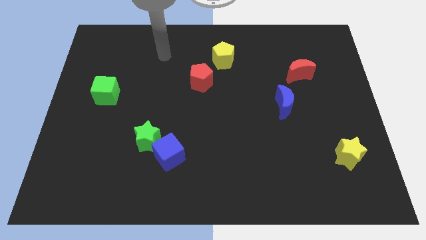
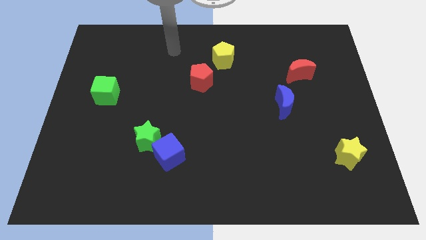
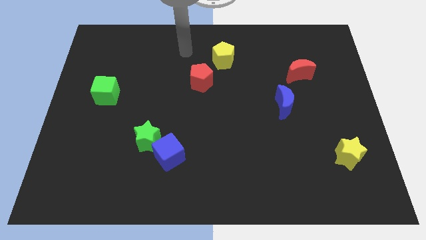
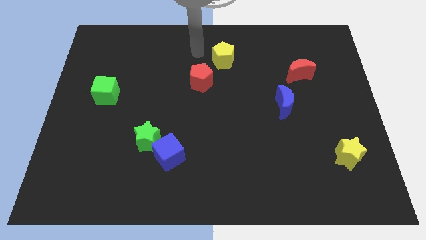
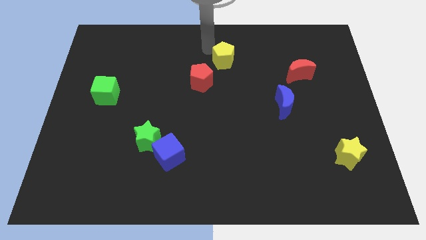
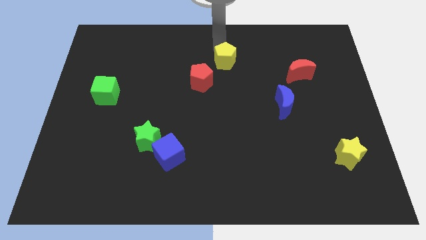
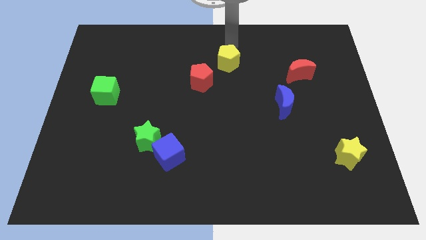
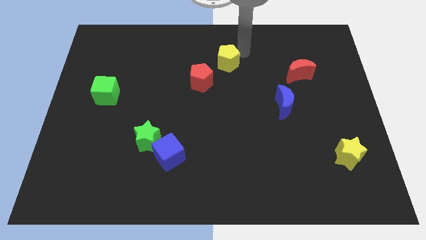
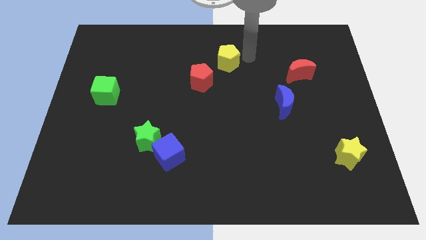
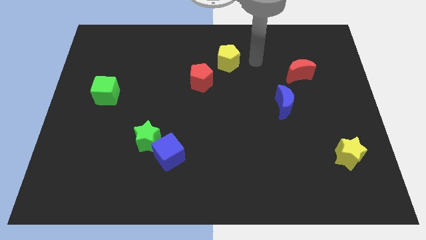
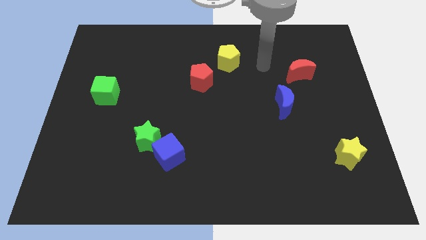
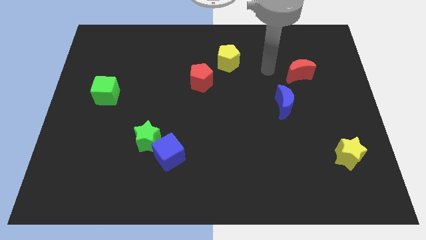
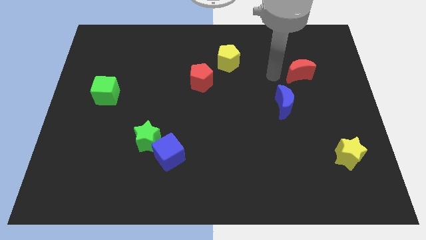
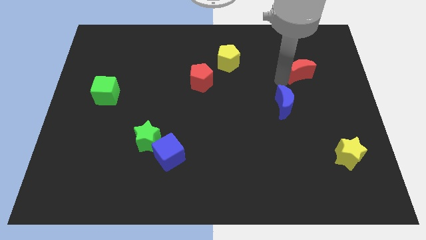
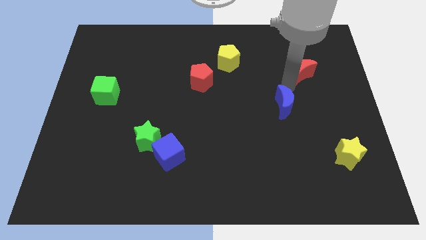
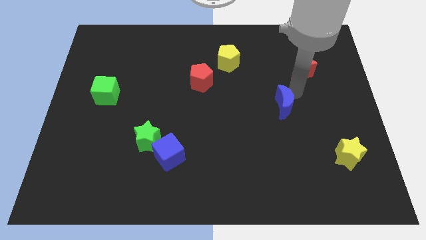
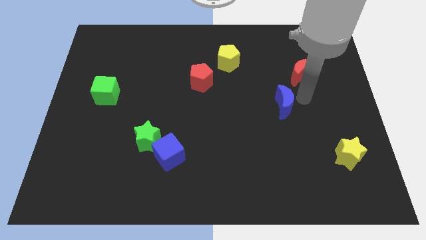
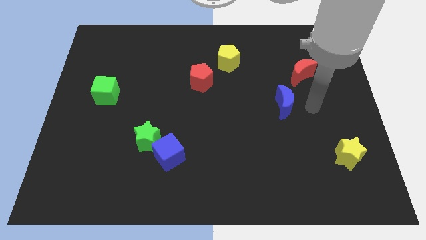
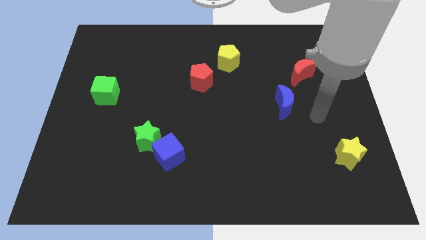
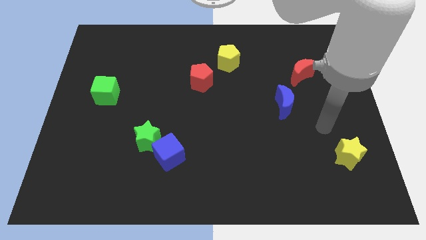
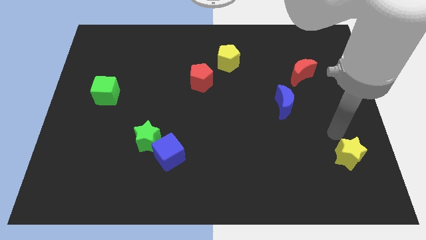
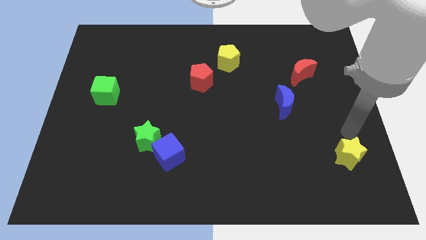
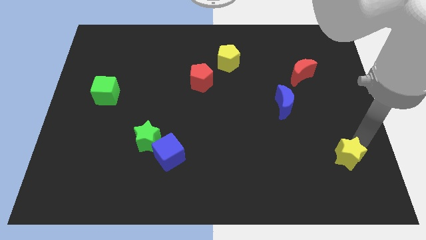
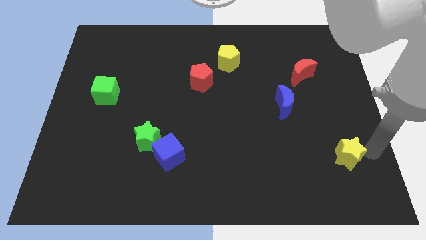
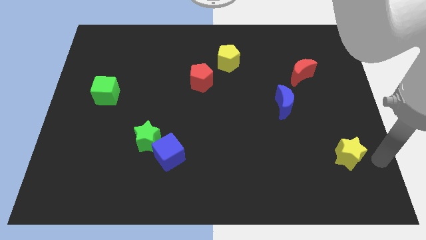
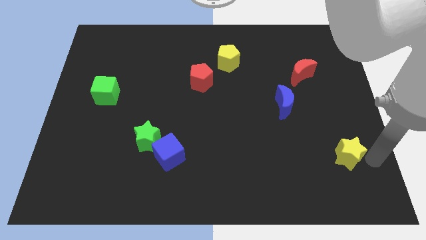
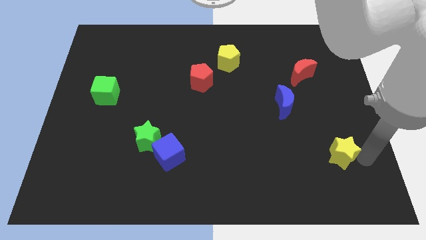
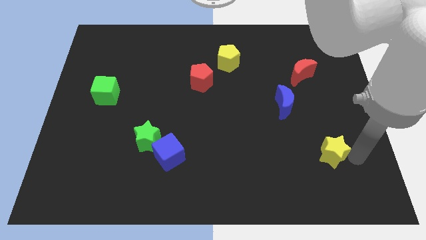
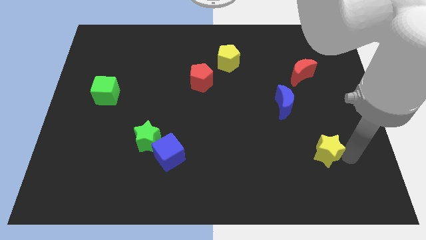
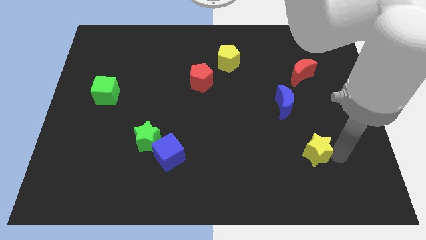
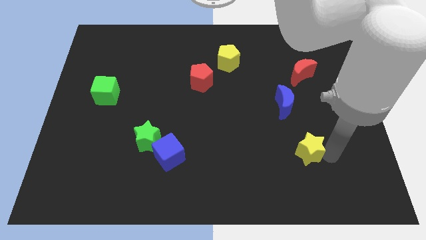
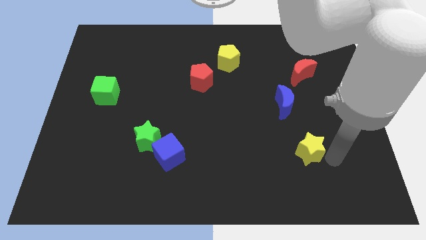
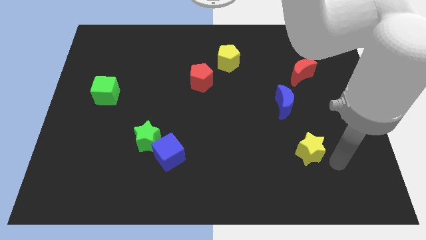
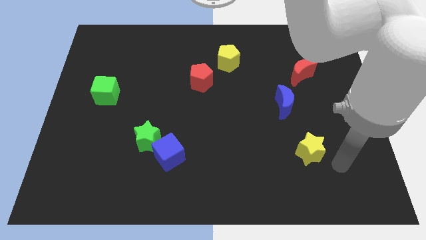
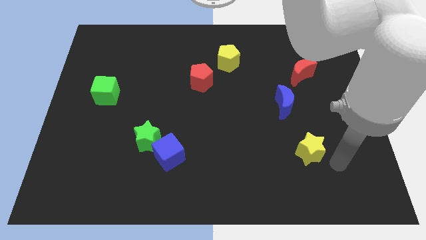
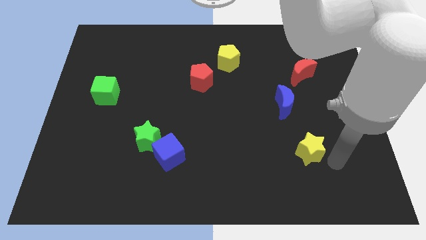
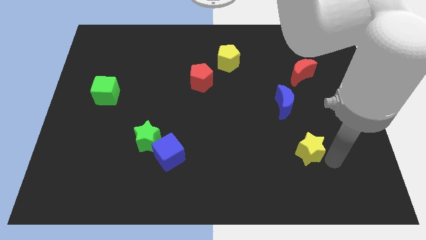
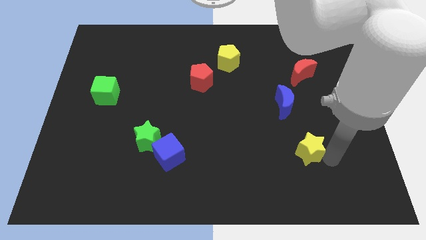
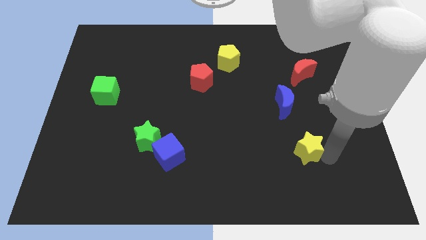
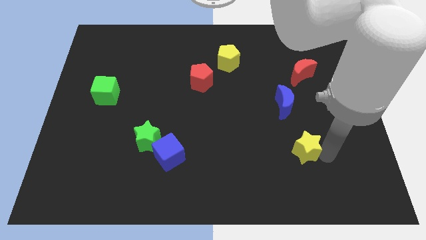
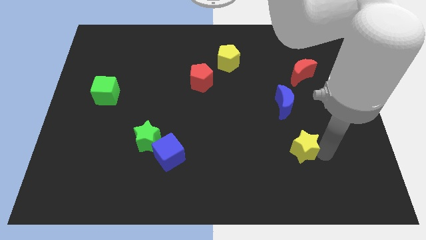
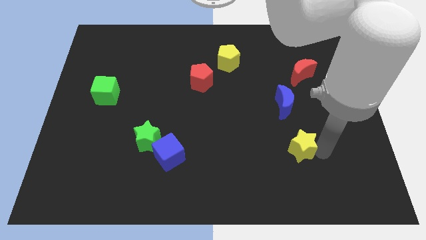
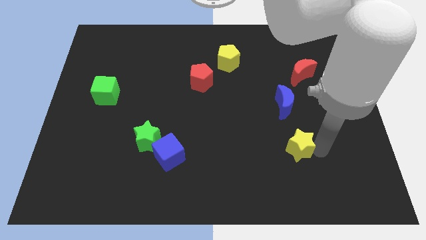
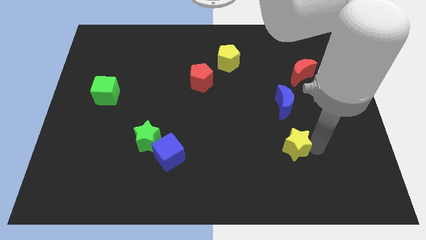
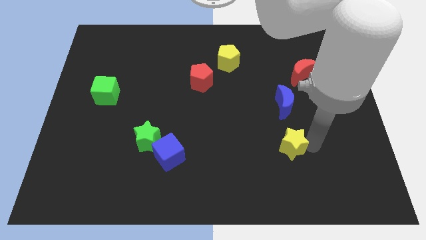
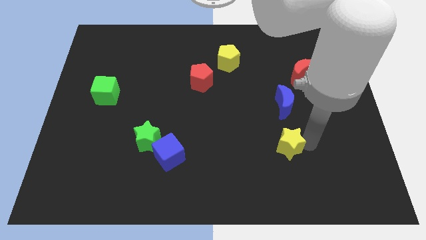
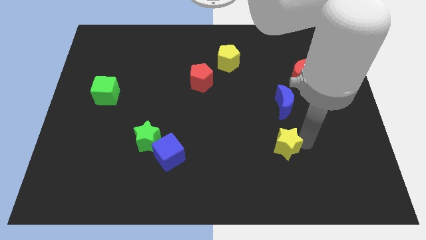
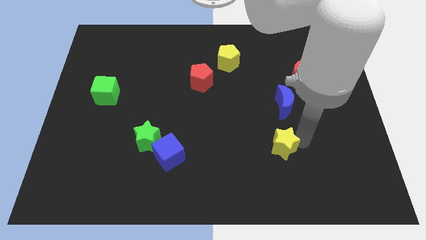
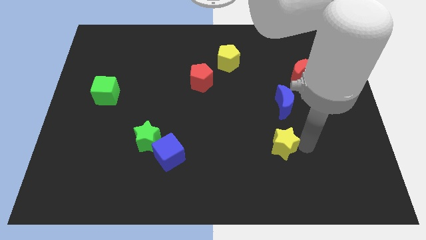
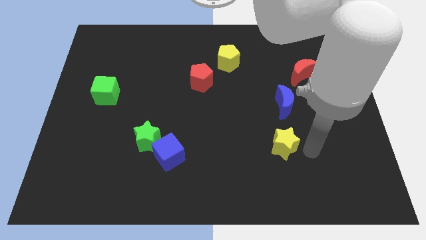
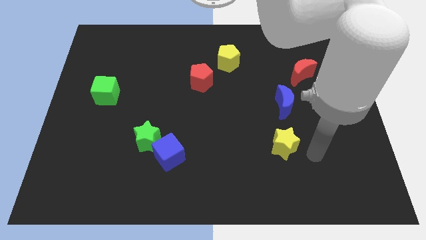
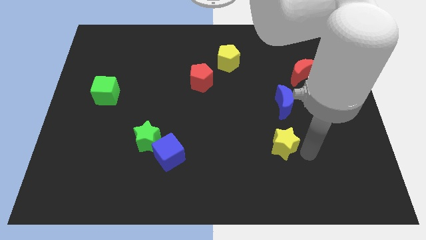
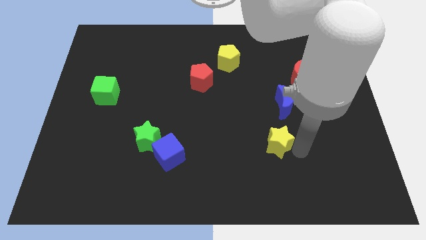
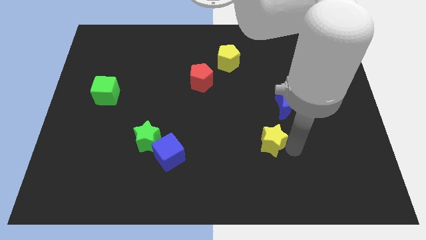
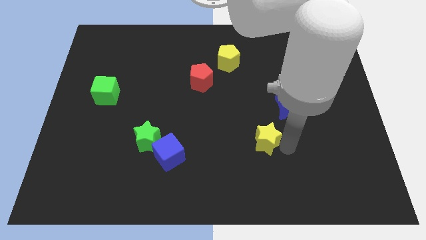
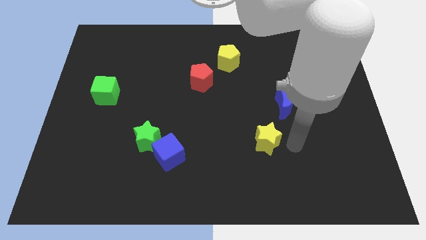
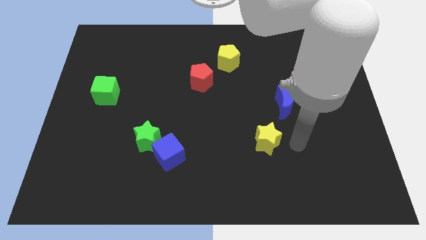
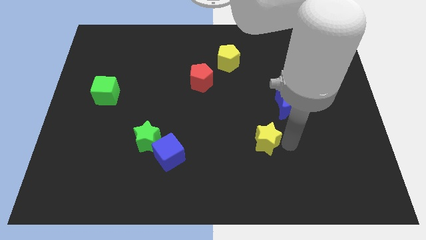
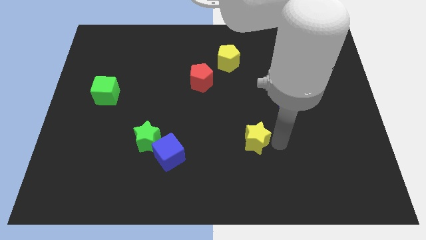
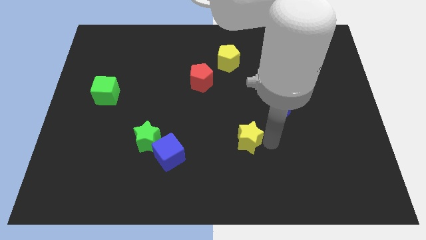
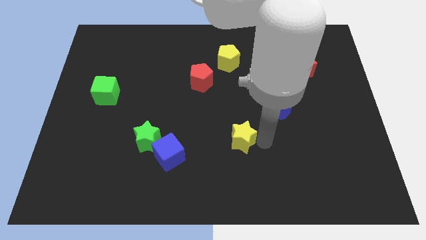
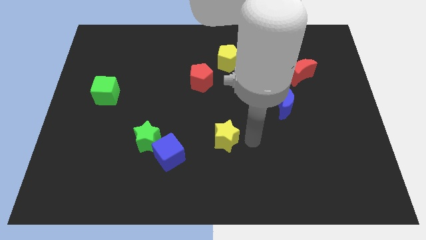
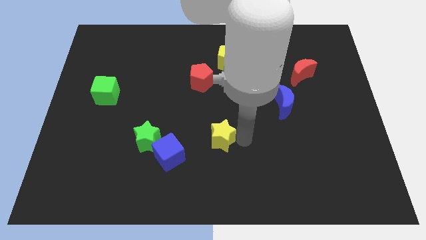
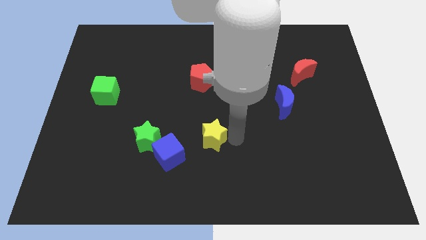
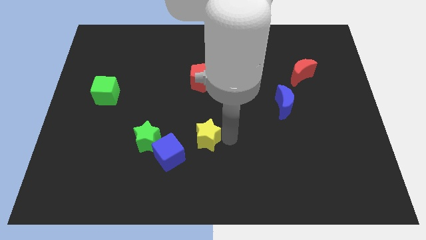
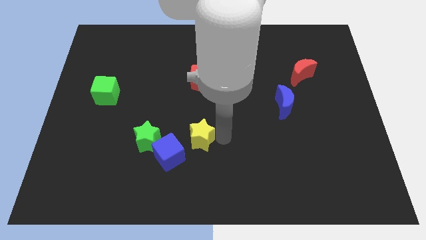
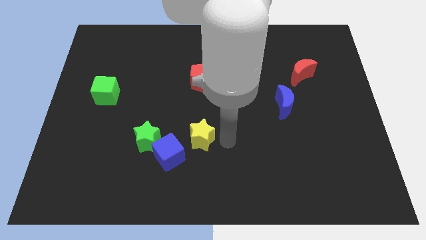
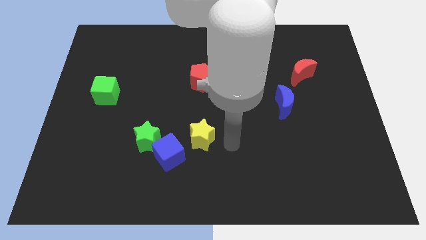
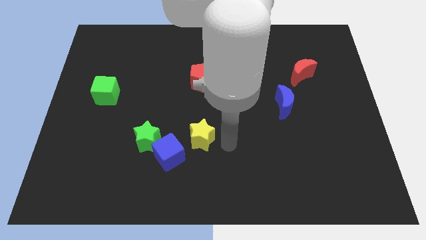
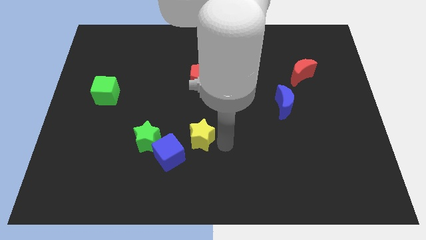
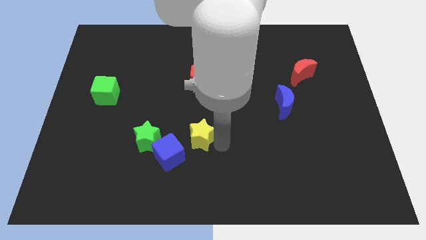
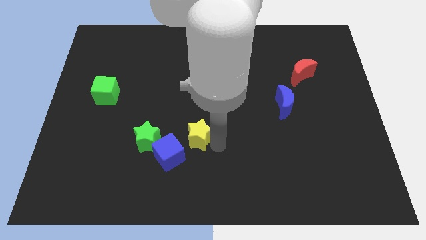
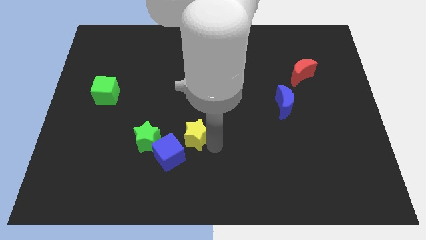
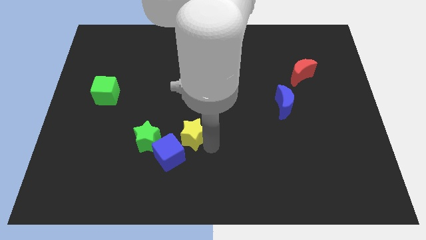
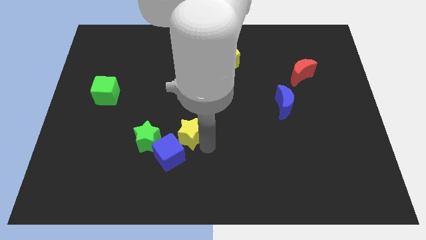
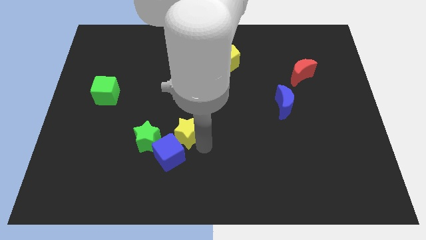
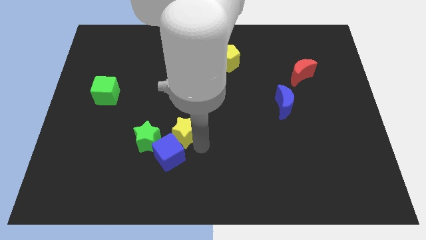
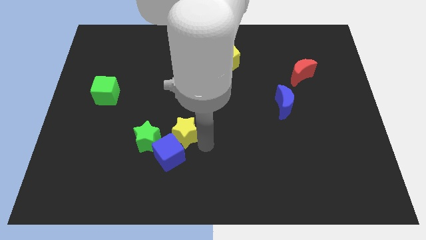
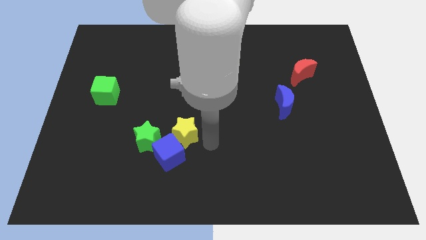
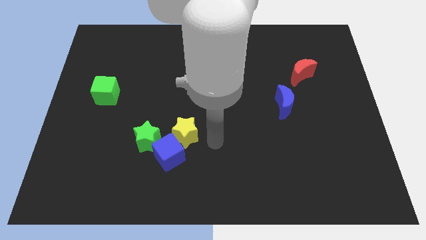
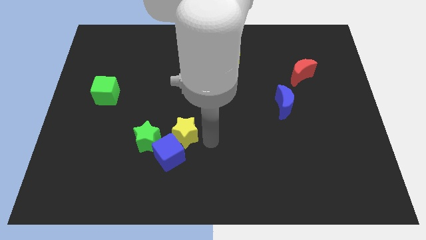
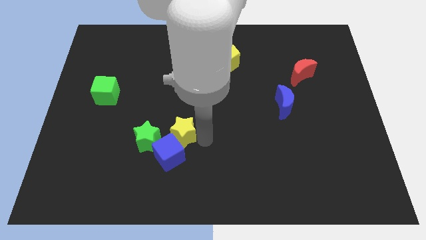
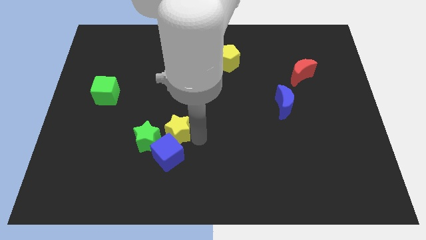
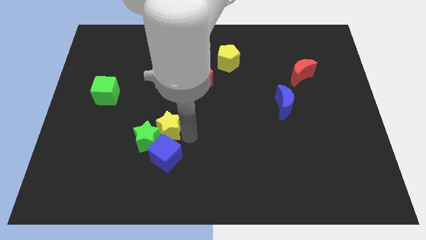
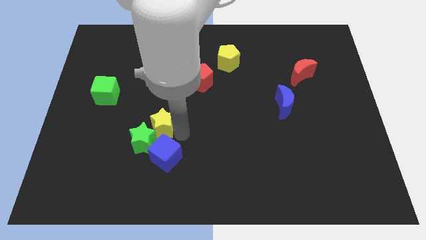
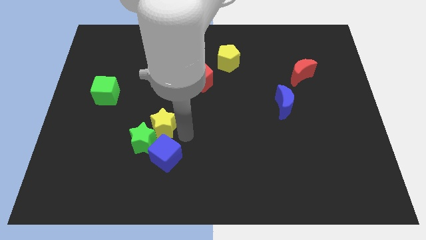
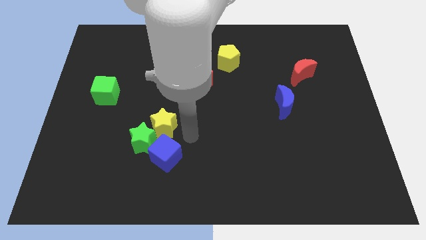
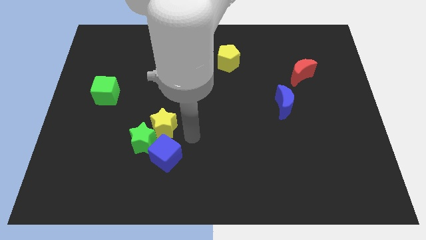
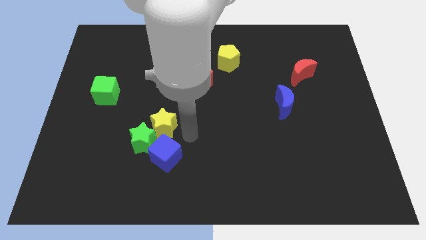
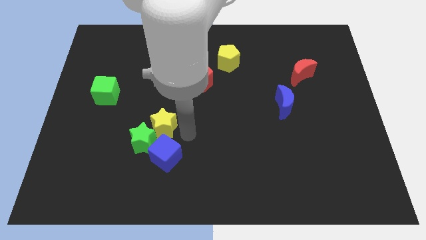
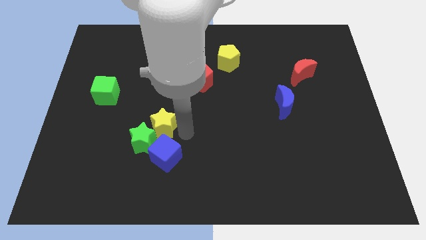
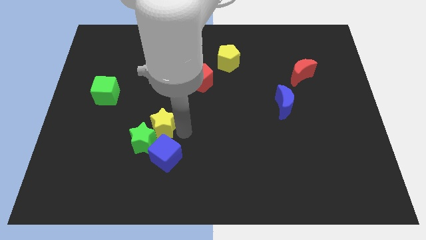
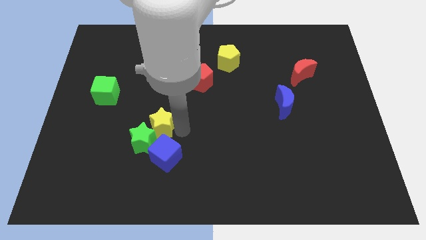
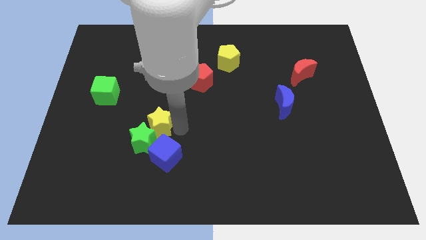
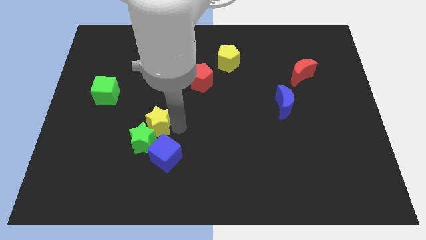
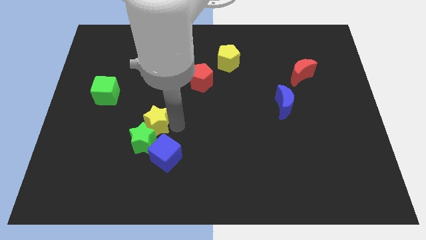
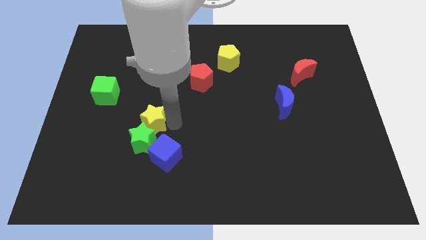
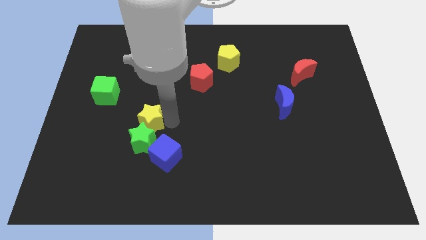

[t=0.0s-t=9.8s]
move the yellow star to the top left side of the green star
